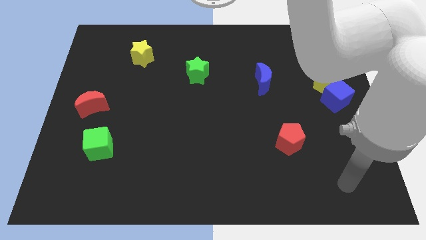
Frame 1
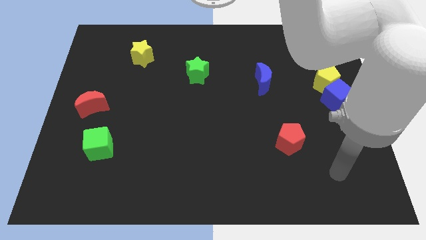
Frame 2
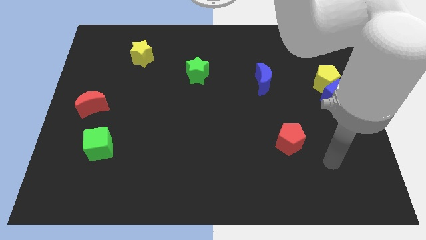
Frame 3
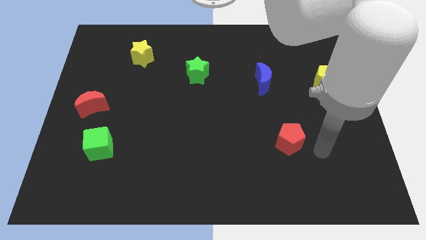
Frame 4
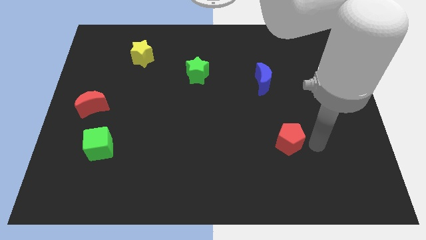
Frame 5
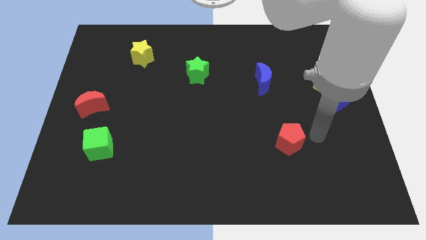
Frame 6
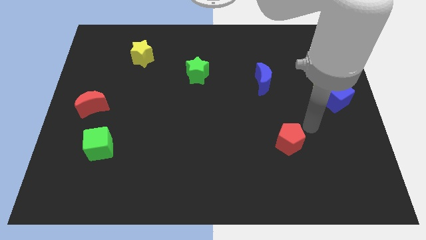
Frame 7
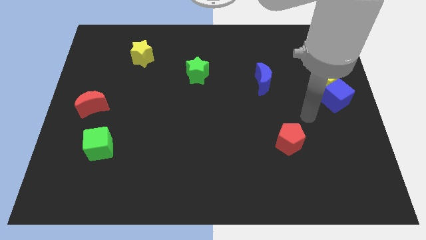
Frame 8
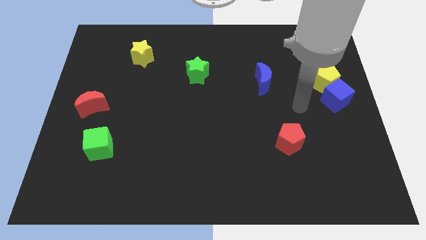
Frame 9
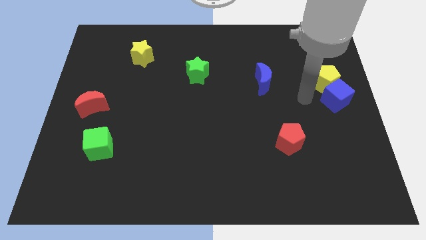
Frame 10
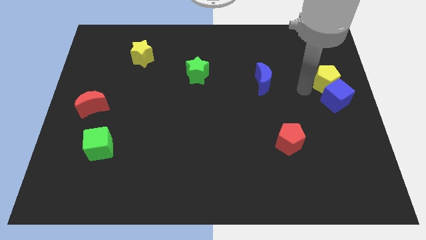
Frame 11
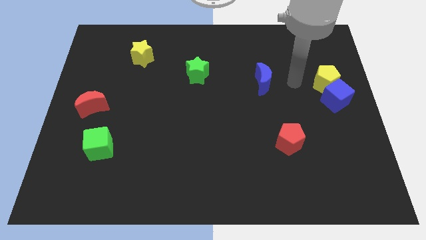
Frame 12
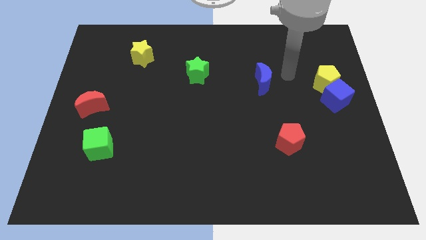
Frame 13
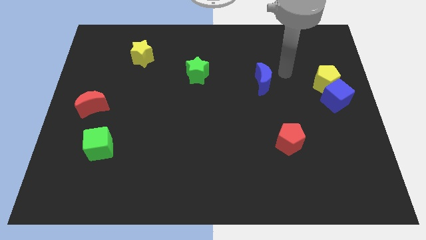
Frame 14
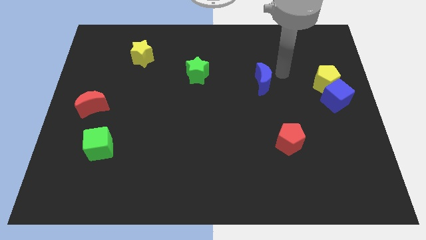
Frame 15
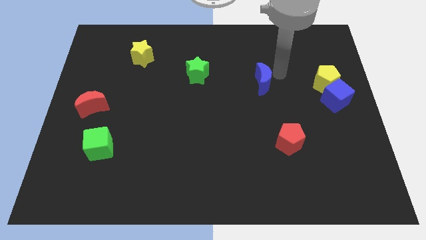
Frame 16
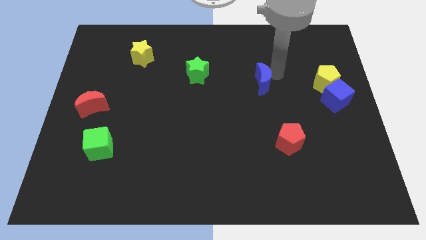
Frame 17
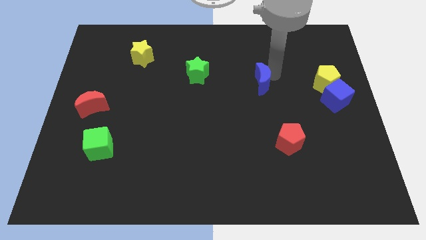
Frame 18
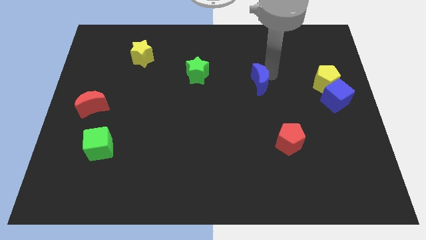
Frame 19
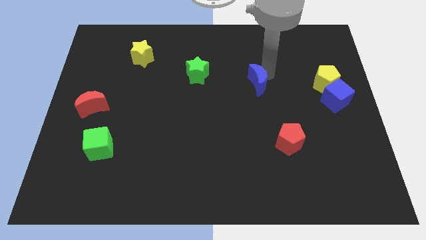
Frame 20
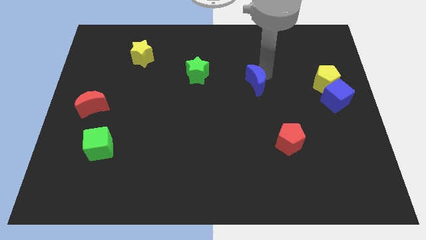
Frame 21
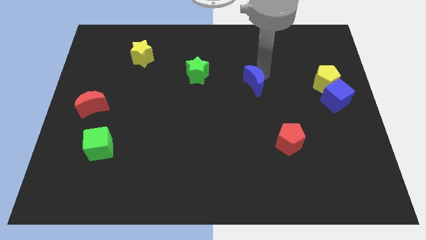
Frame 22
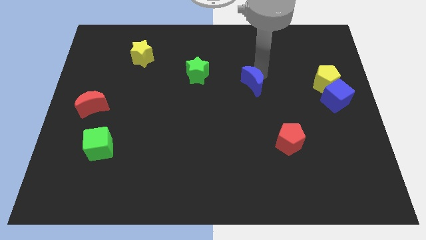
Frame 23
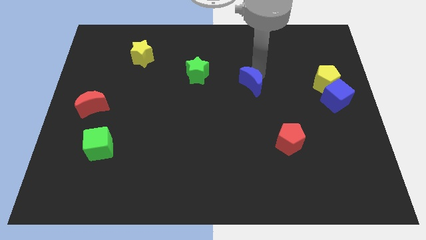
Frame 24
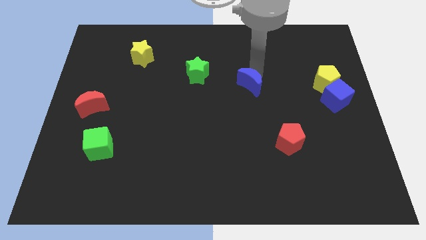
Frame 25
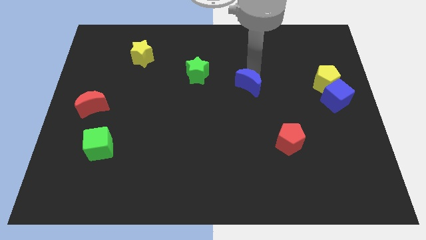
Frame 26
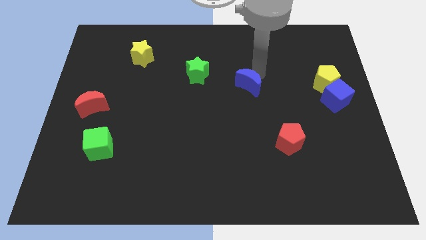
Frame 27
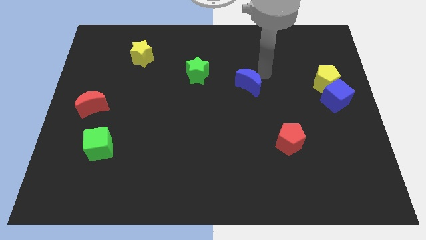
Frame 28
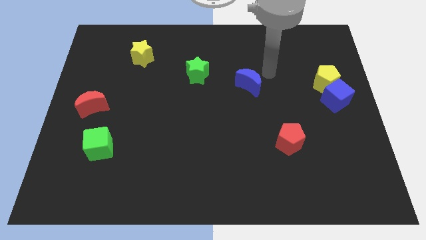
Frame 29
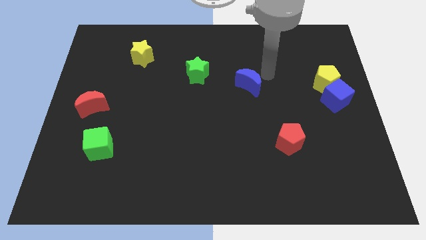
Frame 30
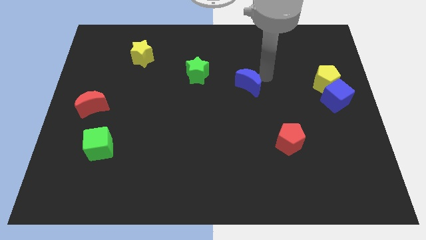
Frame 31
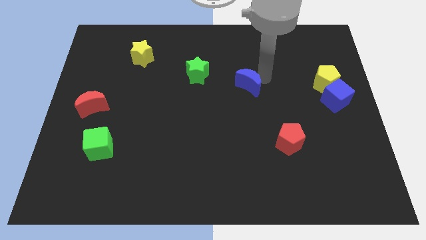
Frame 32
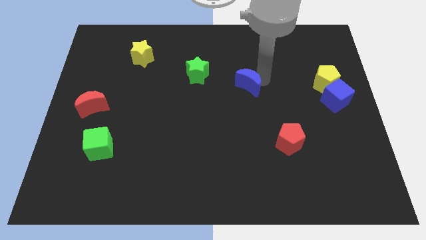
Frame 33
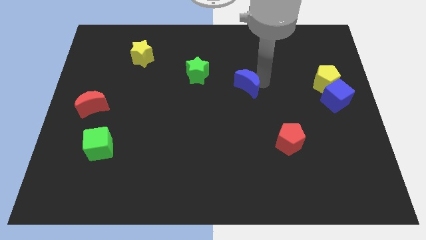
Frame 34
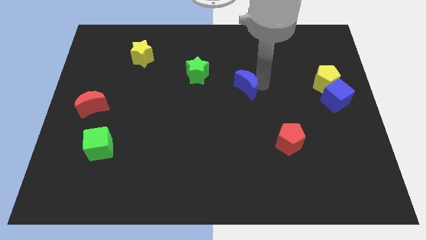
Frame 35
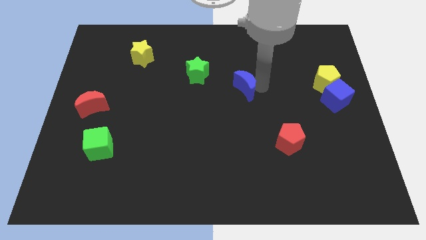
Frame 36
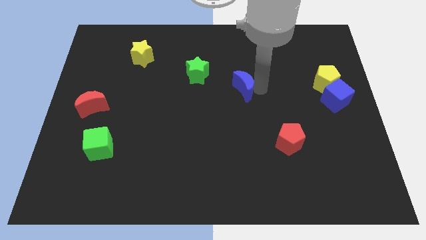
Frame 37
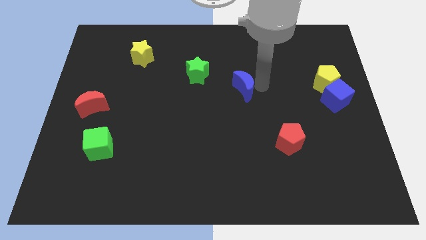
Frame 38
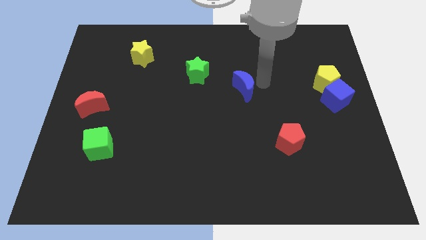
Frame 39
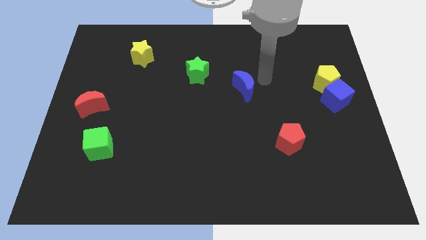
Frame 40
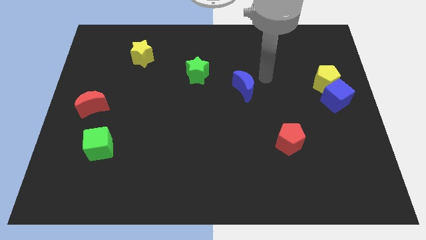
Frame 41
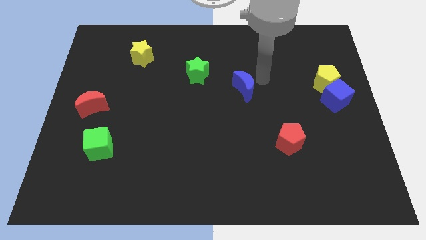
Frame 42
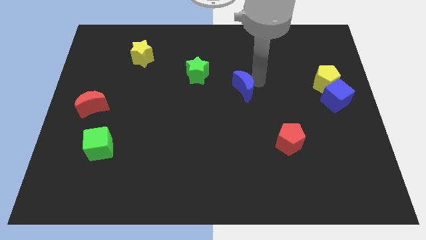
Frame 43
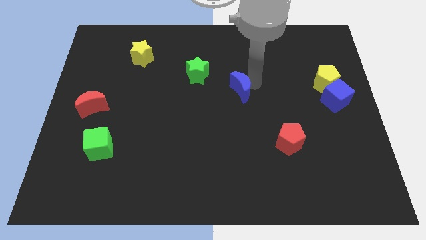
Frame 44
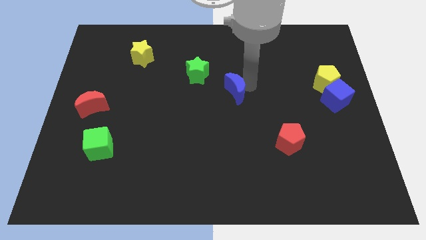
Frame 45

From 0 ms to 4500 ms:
move the blue moon downwards and left somewhat

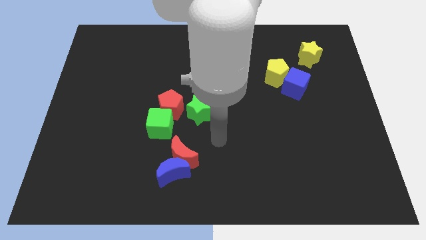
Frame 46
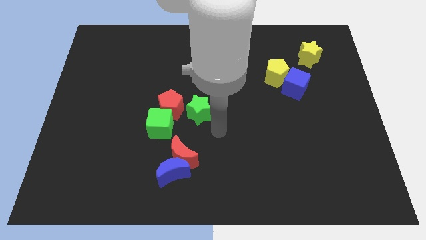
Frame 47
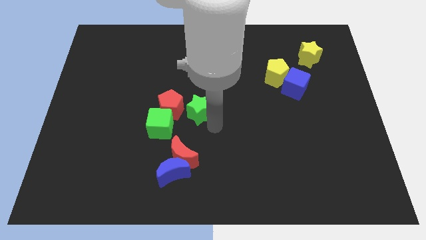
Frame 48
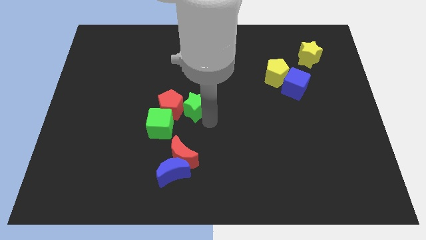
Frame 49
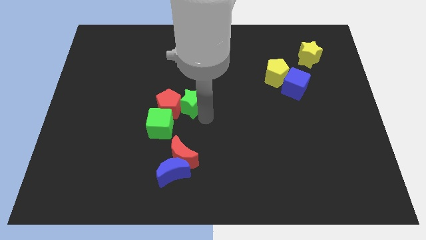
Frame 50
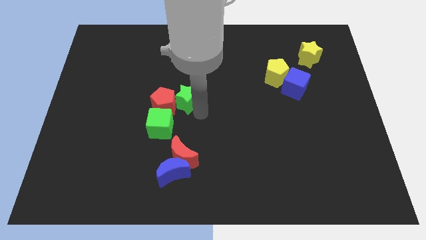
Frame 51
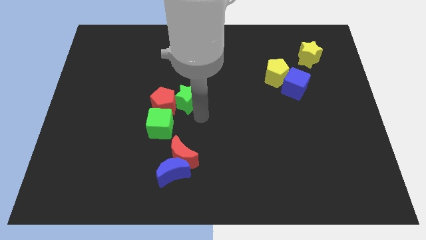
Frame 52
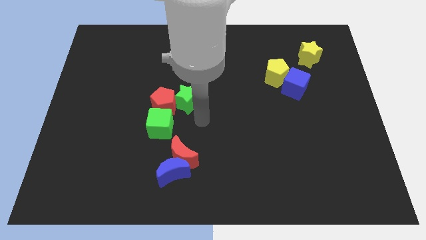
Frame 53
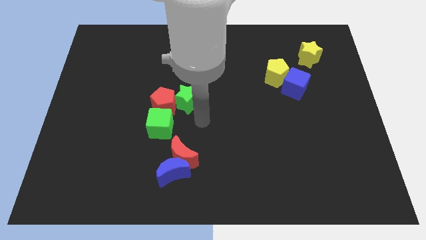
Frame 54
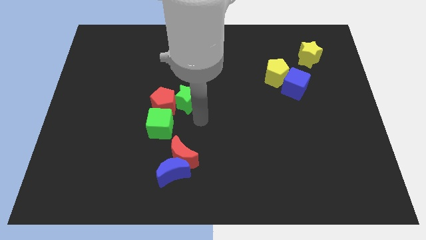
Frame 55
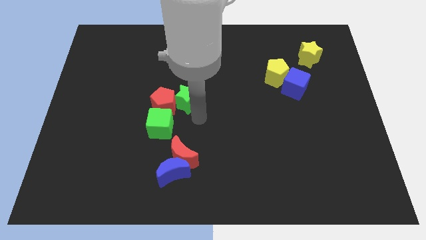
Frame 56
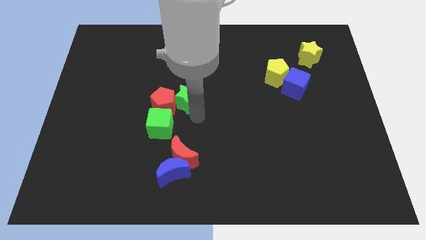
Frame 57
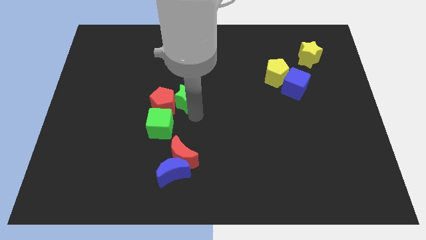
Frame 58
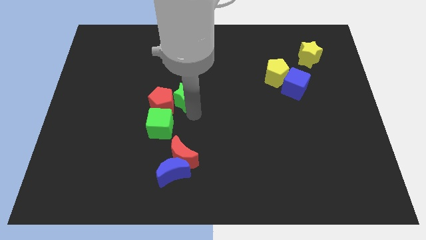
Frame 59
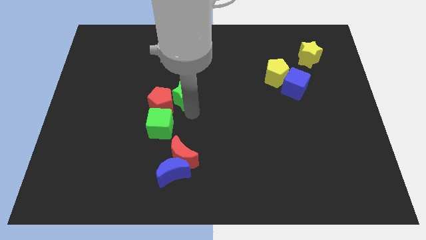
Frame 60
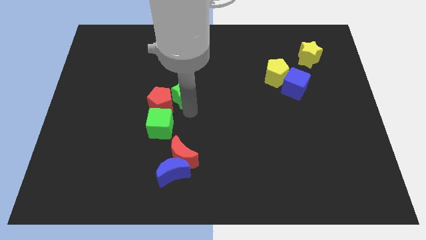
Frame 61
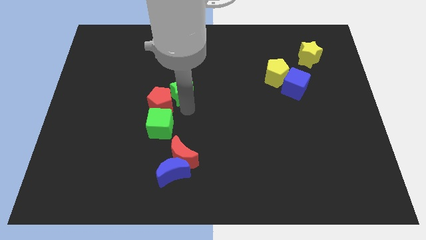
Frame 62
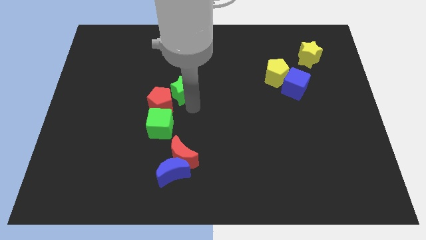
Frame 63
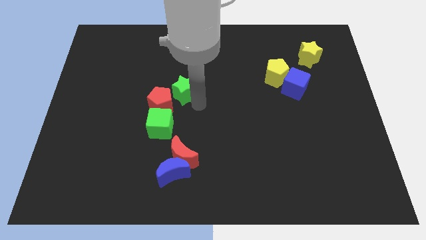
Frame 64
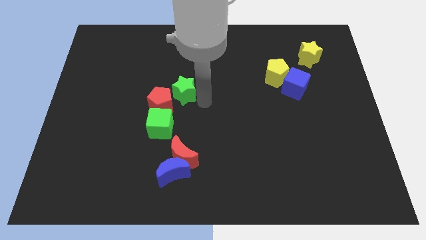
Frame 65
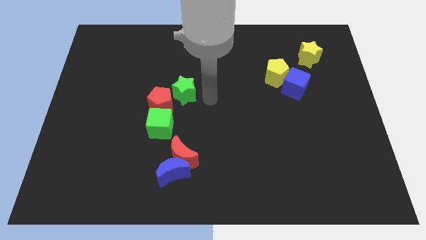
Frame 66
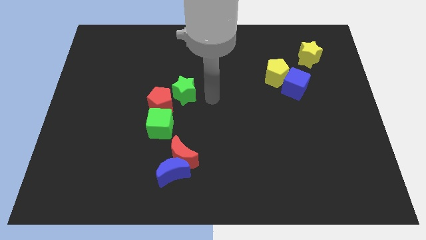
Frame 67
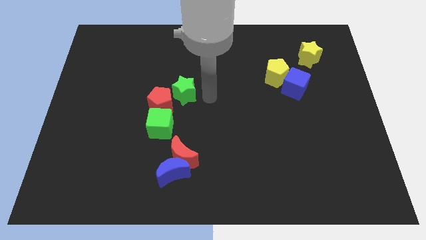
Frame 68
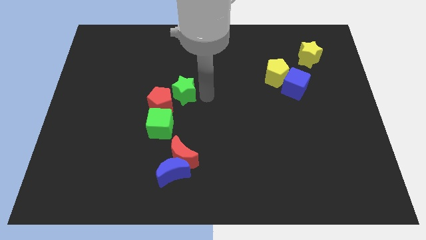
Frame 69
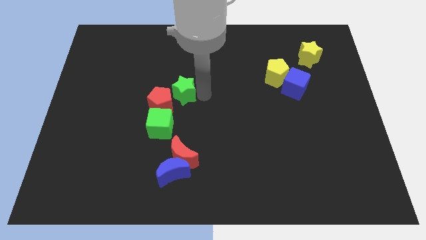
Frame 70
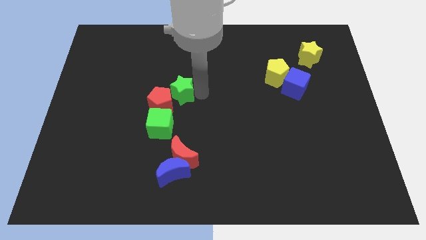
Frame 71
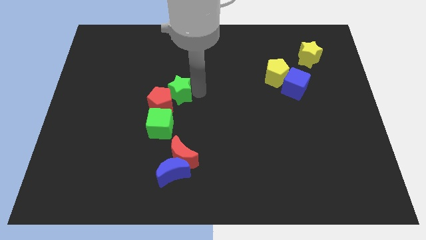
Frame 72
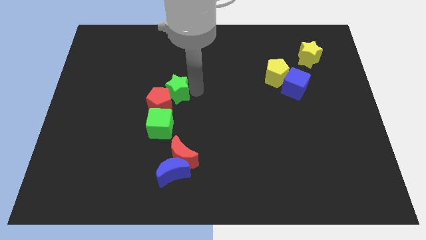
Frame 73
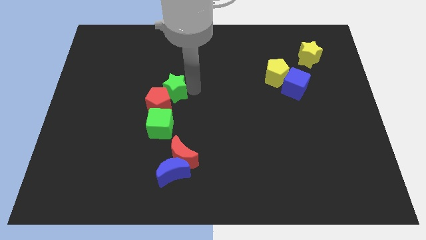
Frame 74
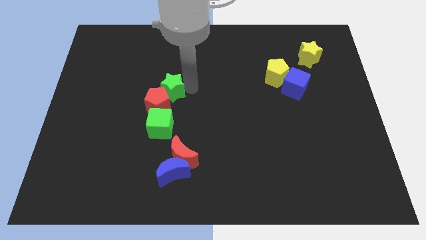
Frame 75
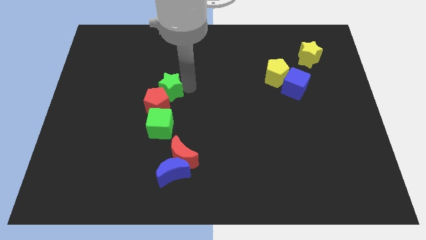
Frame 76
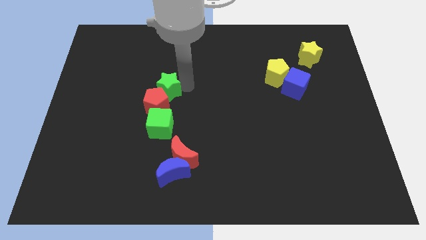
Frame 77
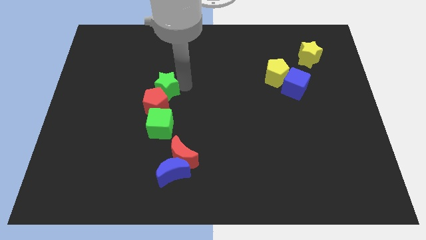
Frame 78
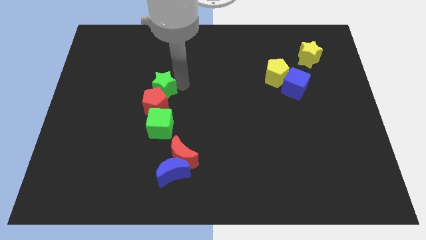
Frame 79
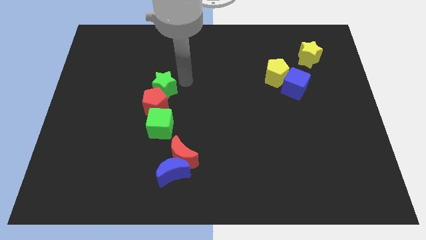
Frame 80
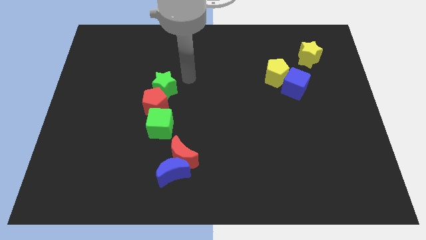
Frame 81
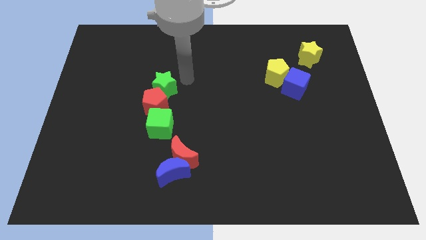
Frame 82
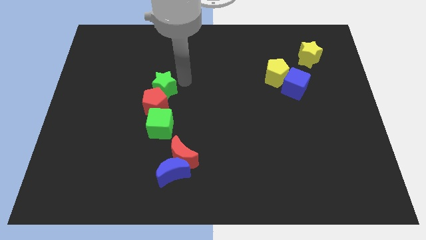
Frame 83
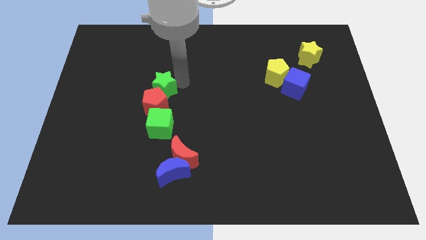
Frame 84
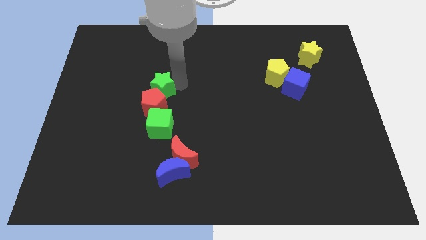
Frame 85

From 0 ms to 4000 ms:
slide the green star slightly left
